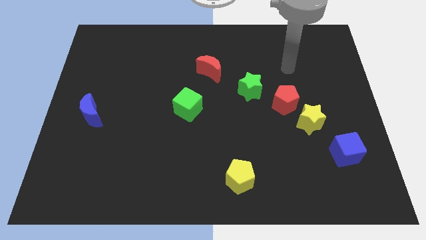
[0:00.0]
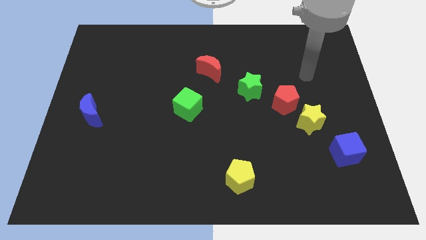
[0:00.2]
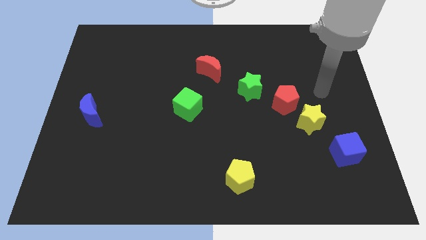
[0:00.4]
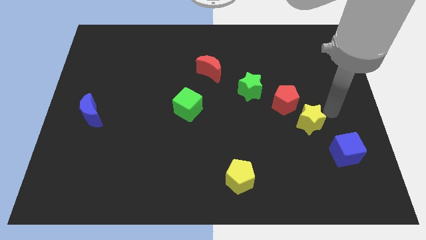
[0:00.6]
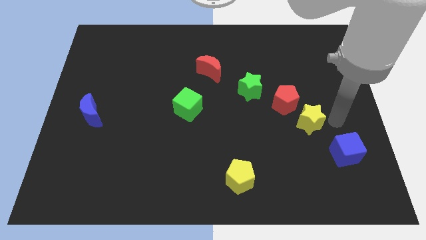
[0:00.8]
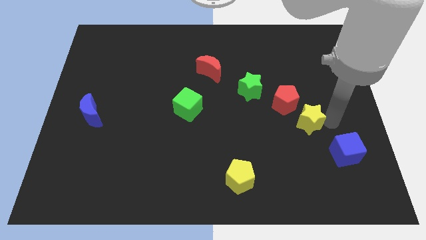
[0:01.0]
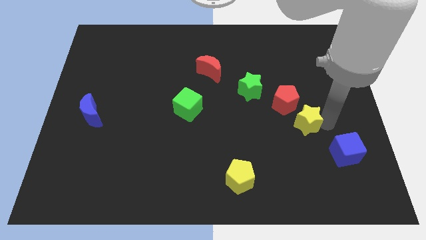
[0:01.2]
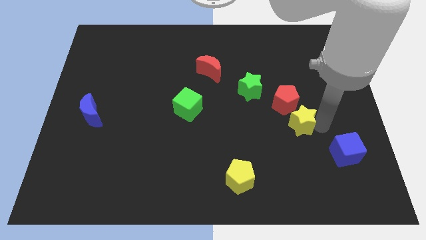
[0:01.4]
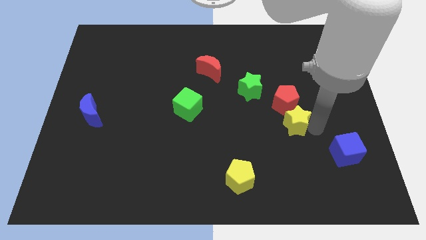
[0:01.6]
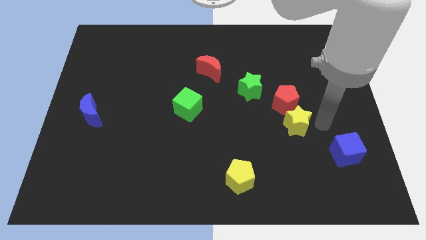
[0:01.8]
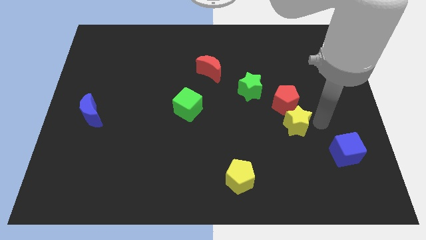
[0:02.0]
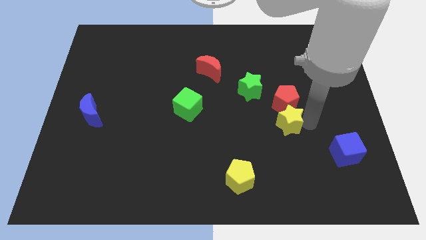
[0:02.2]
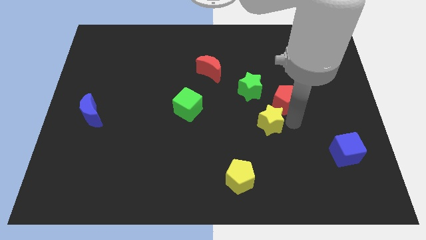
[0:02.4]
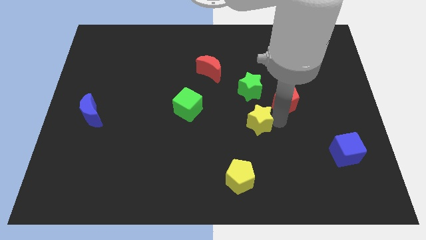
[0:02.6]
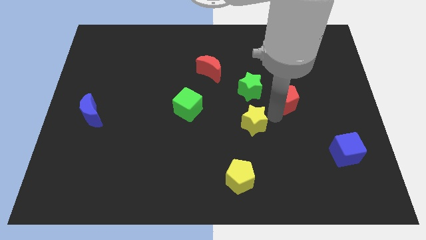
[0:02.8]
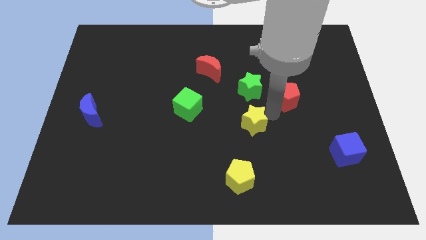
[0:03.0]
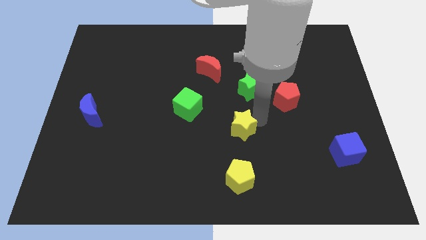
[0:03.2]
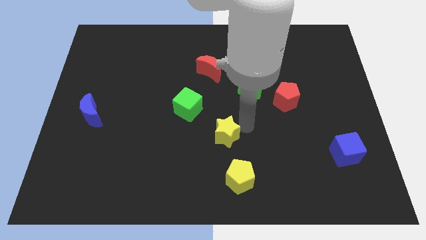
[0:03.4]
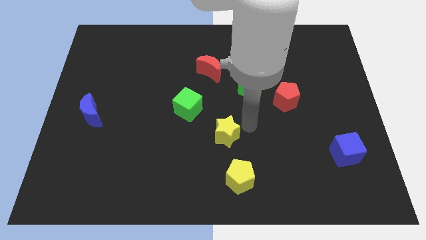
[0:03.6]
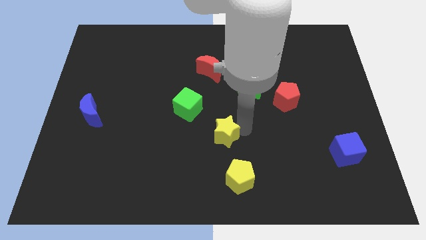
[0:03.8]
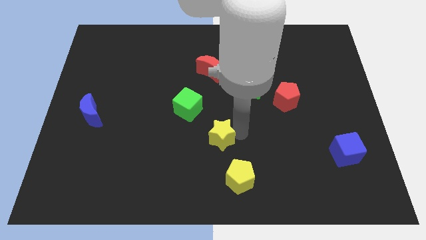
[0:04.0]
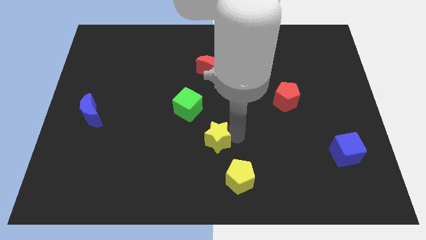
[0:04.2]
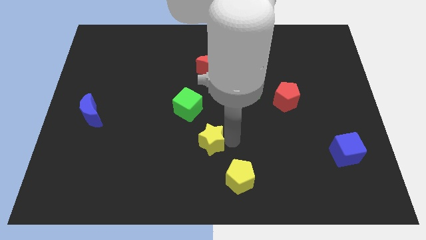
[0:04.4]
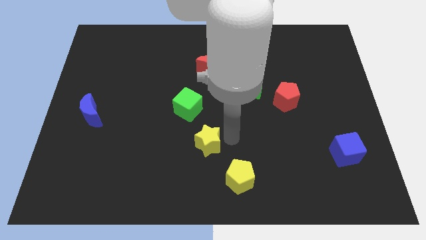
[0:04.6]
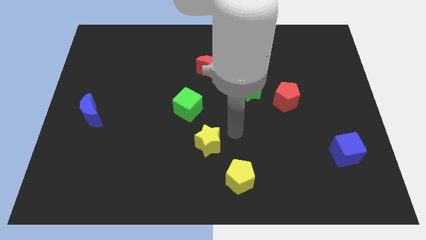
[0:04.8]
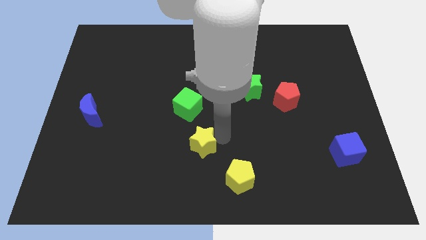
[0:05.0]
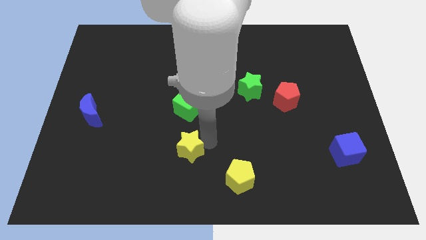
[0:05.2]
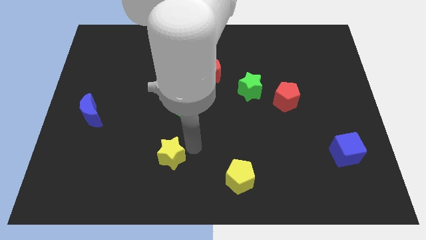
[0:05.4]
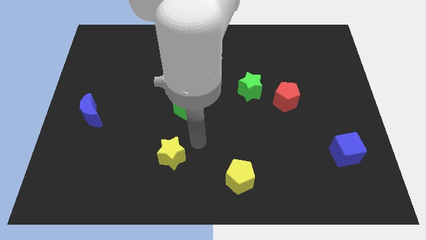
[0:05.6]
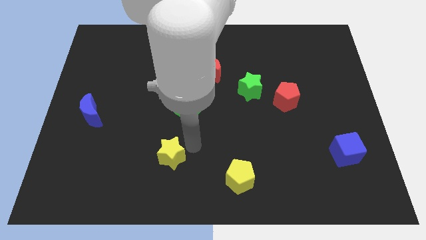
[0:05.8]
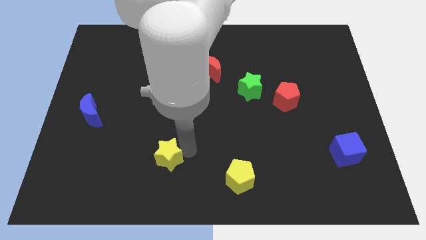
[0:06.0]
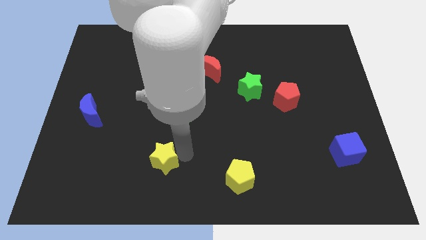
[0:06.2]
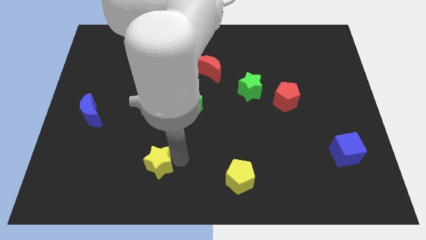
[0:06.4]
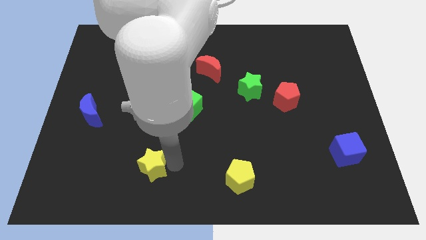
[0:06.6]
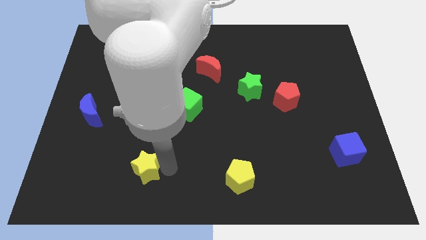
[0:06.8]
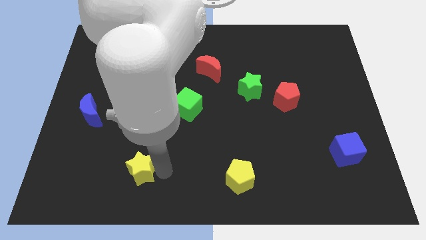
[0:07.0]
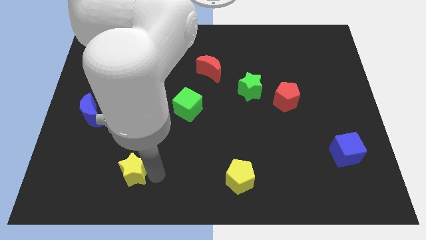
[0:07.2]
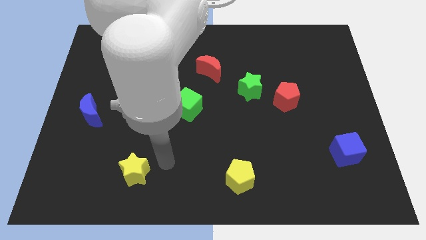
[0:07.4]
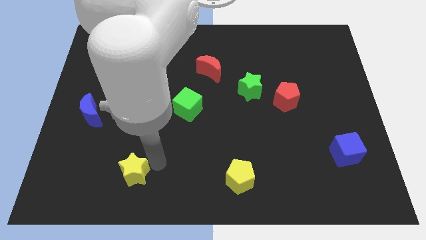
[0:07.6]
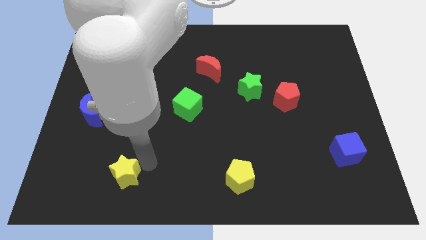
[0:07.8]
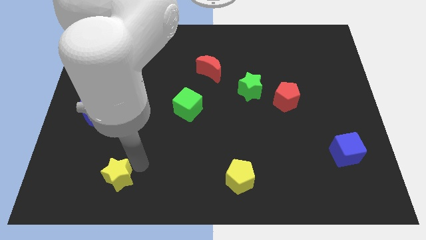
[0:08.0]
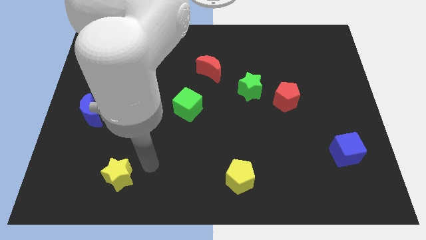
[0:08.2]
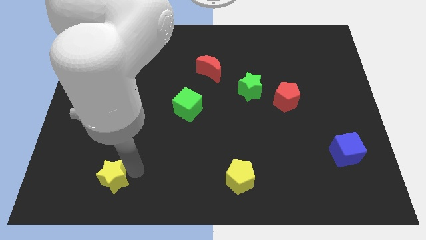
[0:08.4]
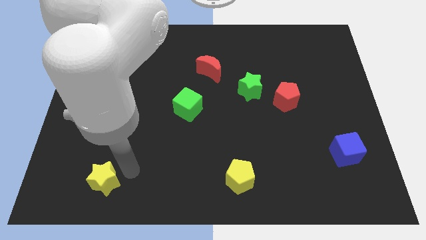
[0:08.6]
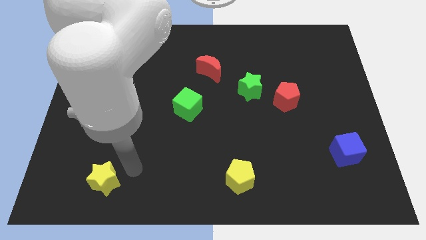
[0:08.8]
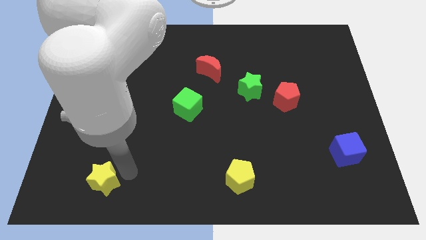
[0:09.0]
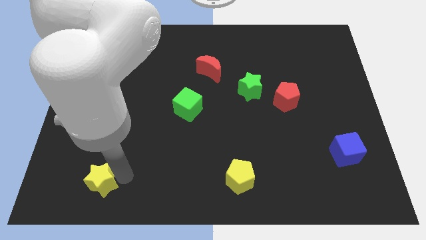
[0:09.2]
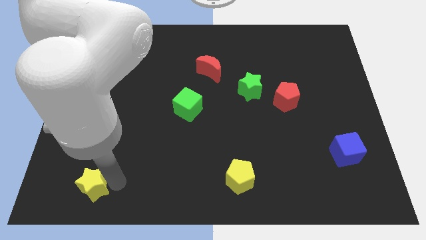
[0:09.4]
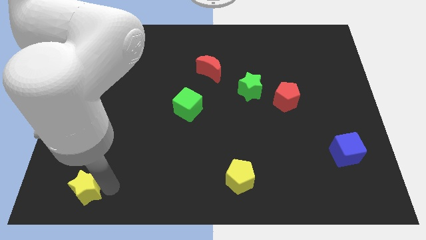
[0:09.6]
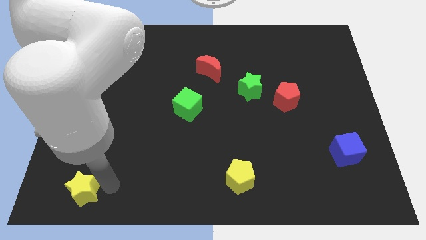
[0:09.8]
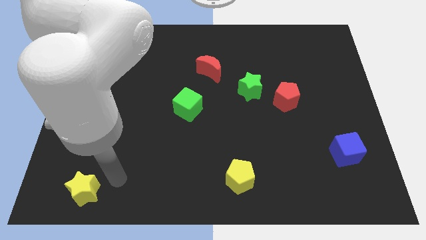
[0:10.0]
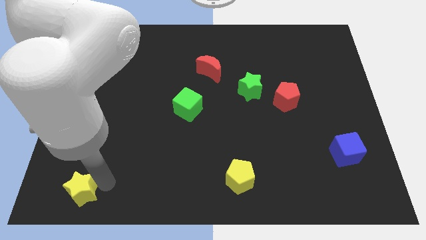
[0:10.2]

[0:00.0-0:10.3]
put the yellow star to the bottom left

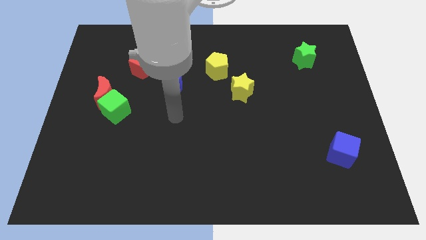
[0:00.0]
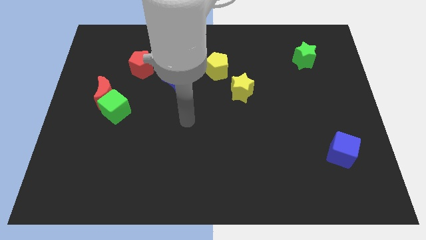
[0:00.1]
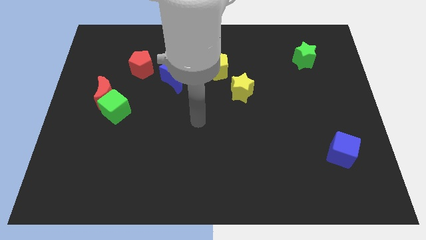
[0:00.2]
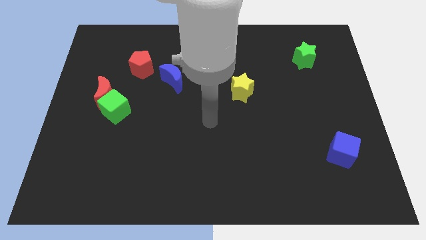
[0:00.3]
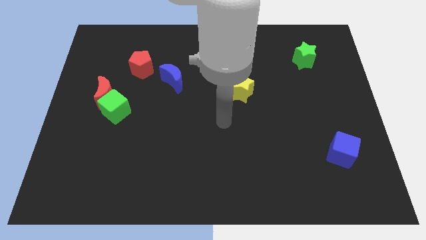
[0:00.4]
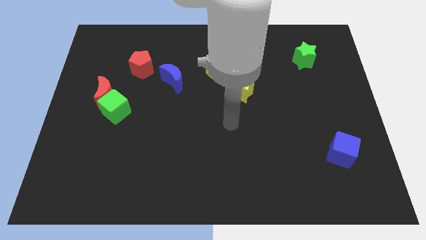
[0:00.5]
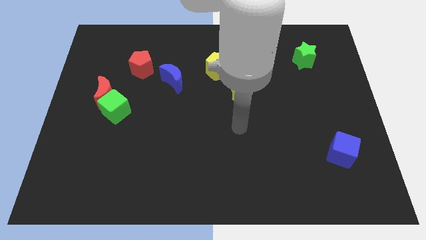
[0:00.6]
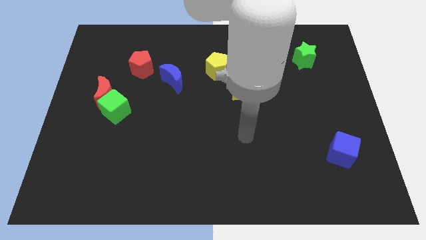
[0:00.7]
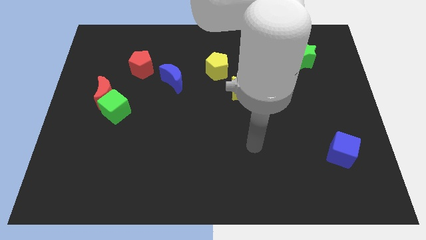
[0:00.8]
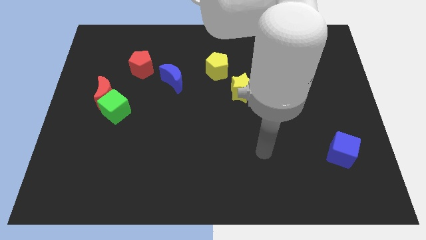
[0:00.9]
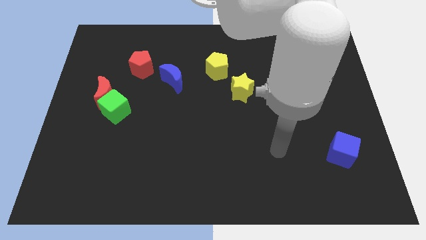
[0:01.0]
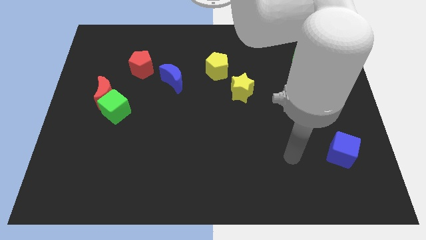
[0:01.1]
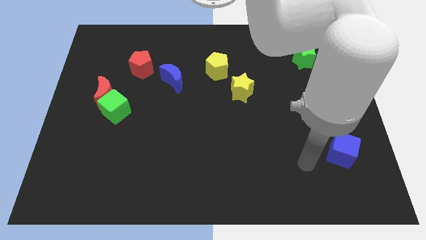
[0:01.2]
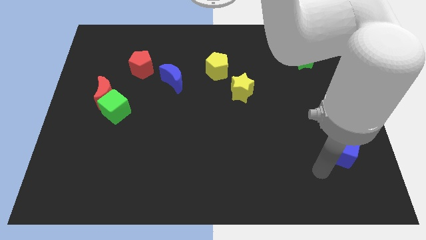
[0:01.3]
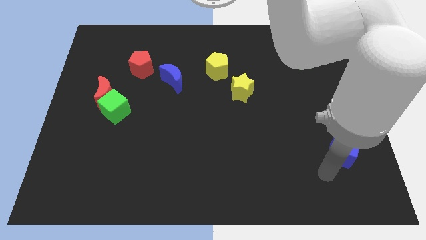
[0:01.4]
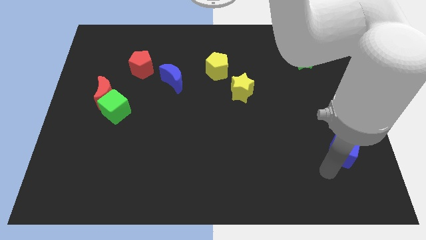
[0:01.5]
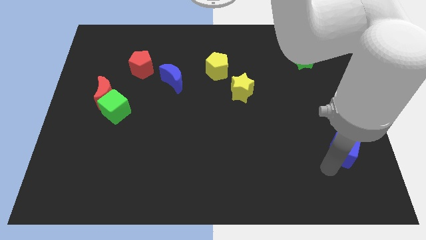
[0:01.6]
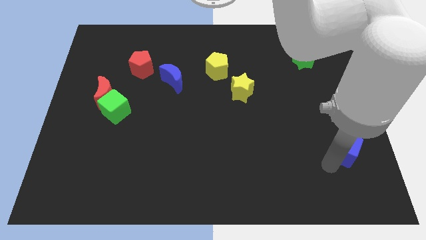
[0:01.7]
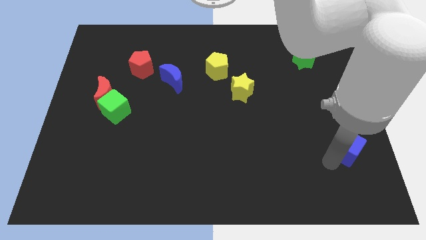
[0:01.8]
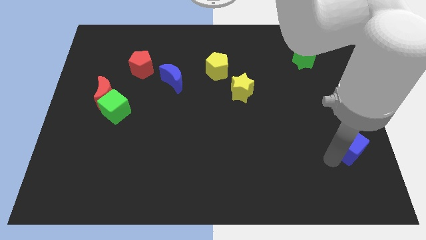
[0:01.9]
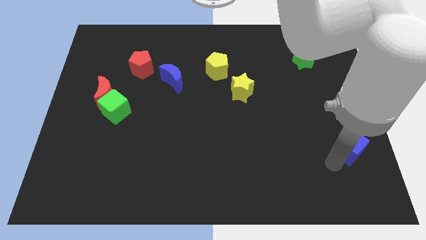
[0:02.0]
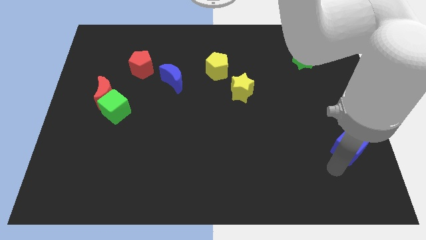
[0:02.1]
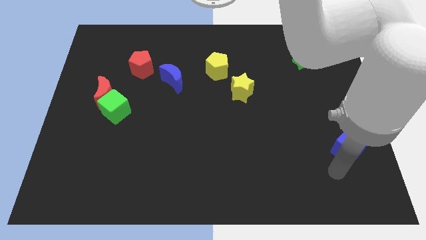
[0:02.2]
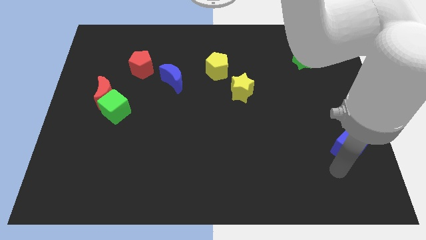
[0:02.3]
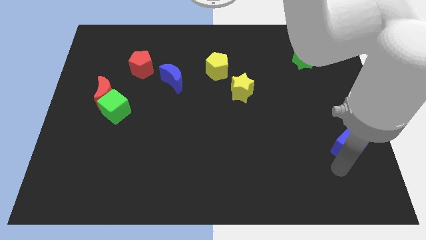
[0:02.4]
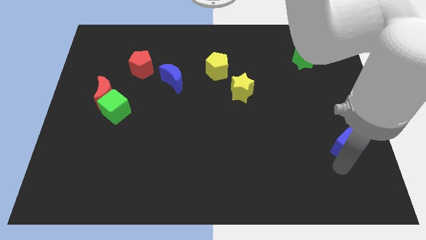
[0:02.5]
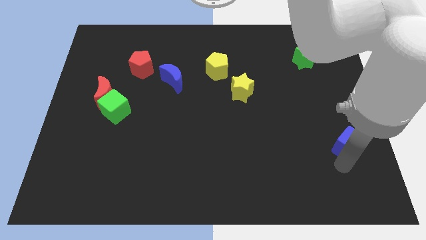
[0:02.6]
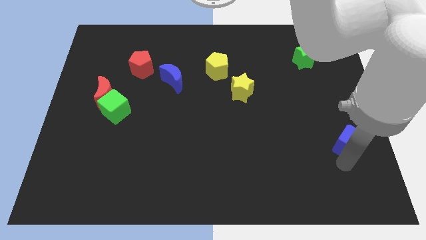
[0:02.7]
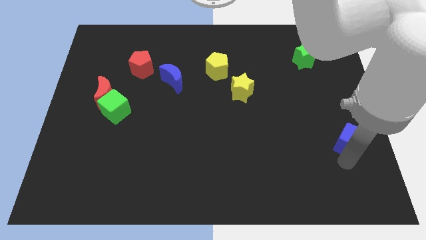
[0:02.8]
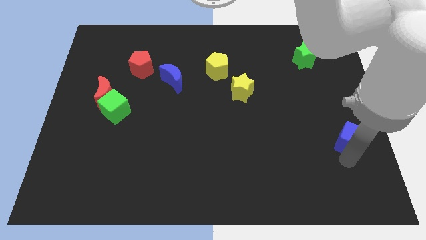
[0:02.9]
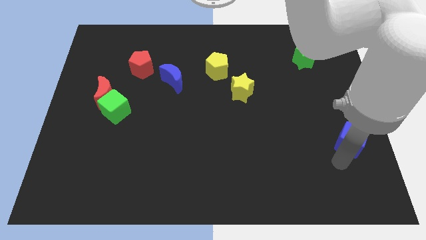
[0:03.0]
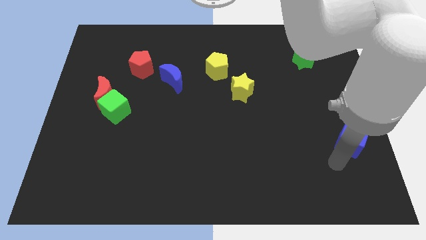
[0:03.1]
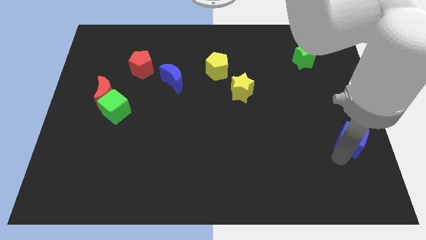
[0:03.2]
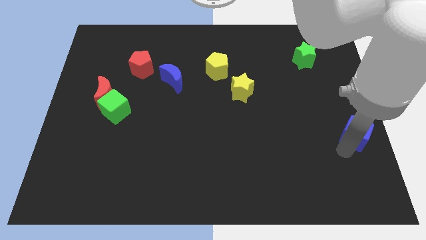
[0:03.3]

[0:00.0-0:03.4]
put the blue cube to the right side

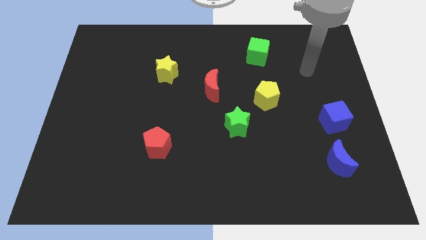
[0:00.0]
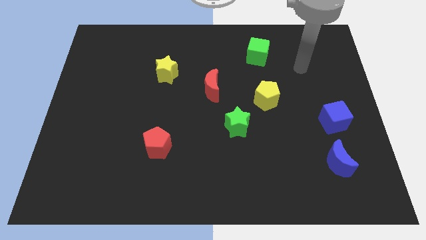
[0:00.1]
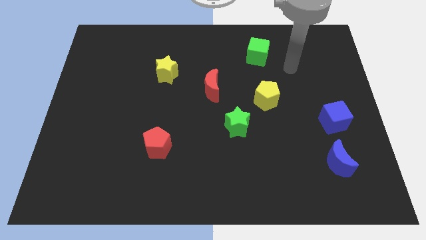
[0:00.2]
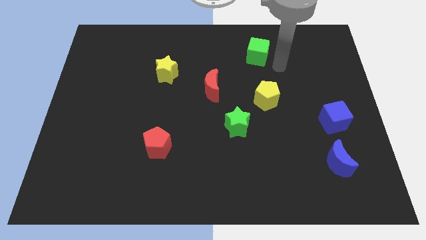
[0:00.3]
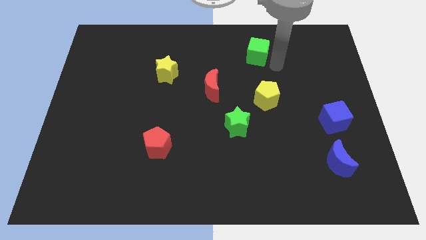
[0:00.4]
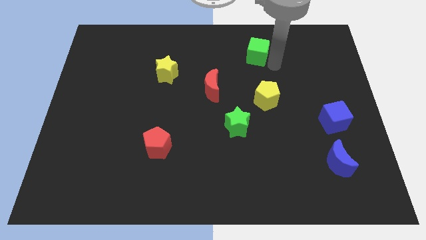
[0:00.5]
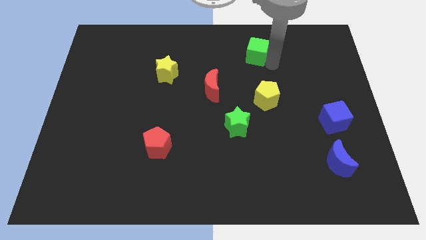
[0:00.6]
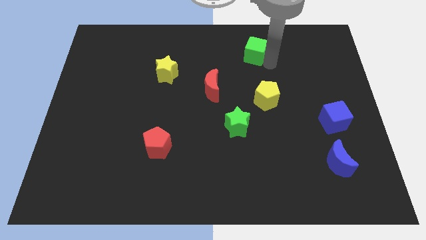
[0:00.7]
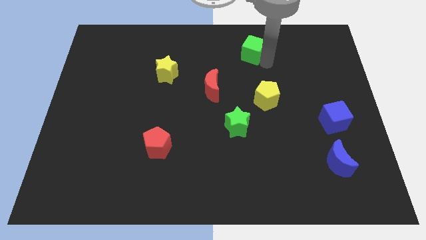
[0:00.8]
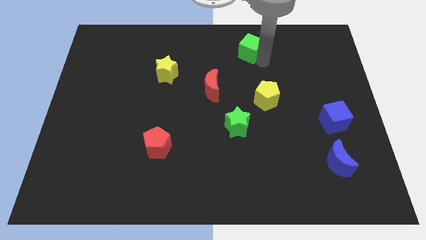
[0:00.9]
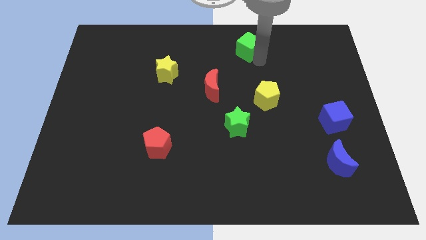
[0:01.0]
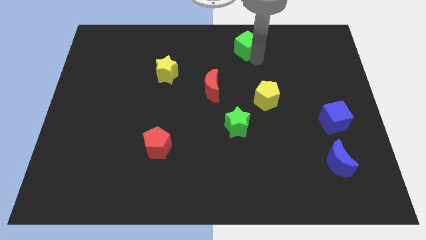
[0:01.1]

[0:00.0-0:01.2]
slide the green cube to the towards your base
